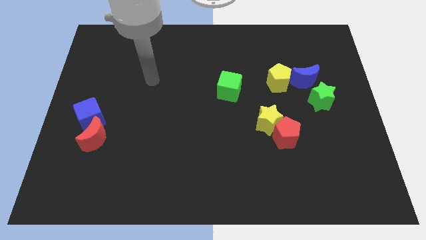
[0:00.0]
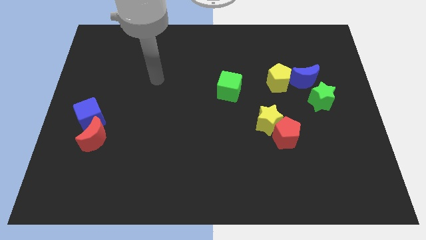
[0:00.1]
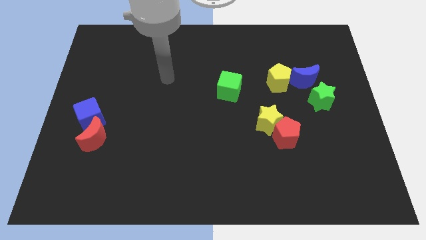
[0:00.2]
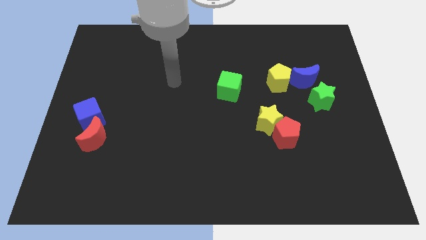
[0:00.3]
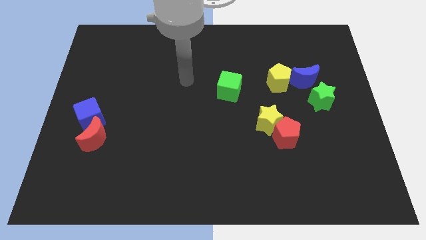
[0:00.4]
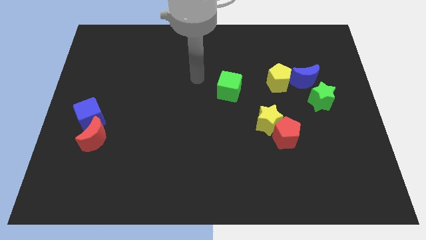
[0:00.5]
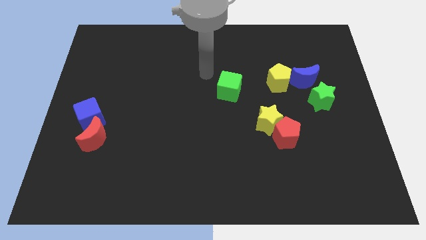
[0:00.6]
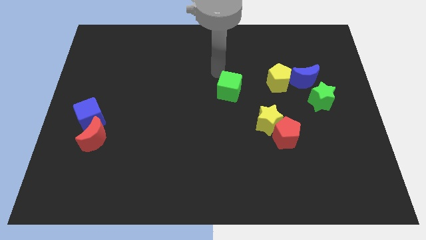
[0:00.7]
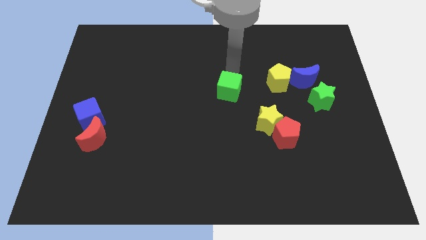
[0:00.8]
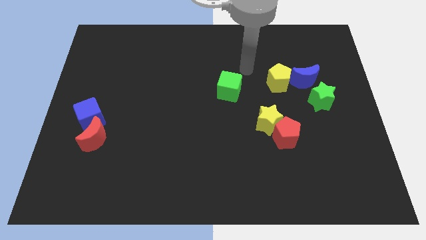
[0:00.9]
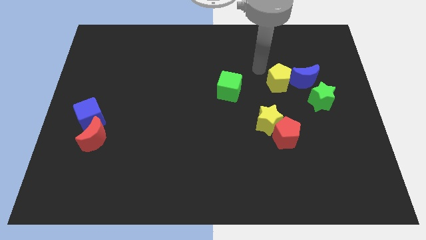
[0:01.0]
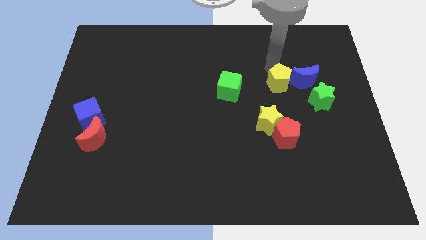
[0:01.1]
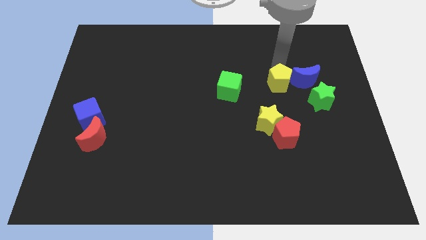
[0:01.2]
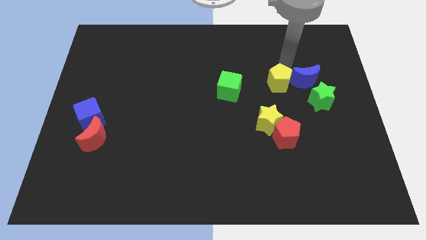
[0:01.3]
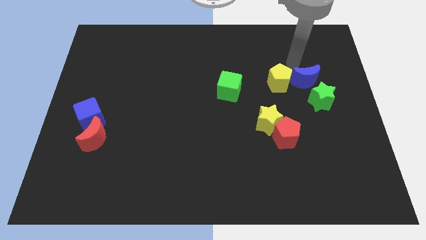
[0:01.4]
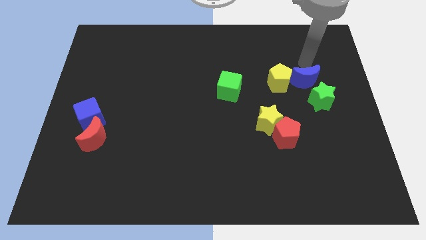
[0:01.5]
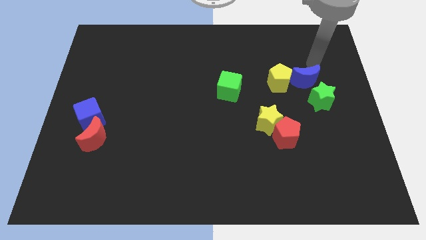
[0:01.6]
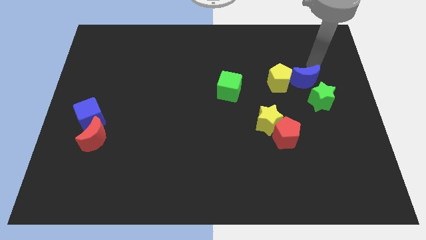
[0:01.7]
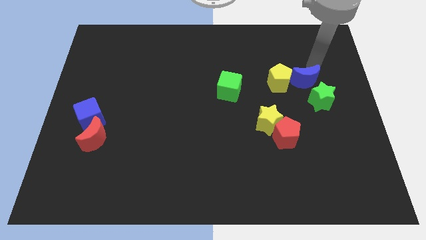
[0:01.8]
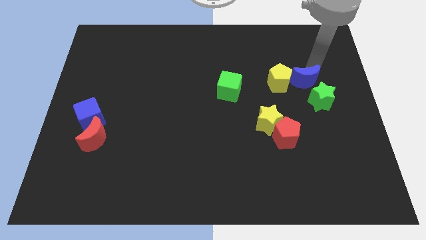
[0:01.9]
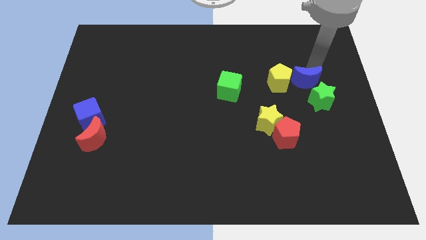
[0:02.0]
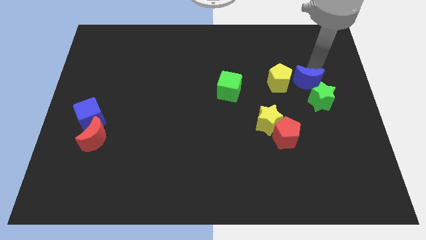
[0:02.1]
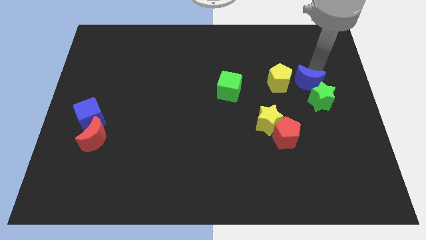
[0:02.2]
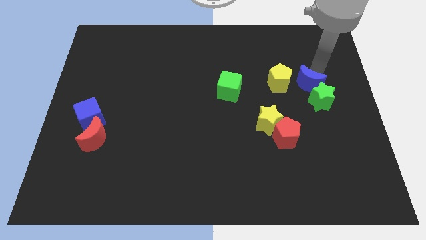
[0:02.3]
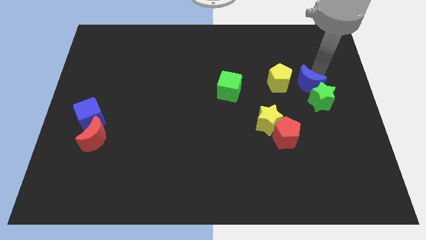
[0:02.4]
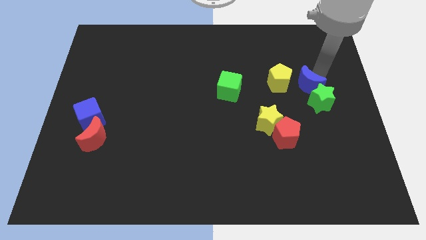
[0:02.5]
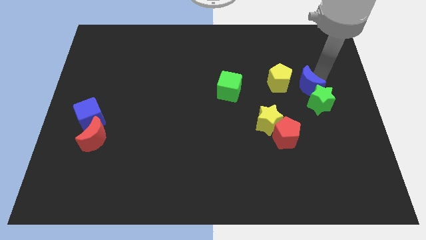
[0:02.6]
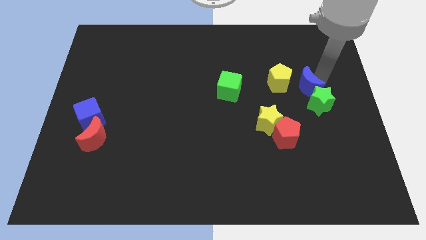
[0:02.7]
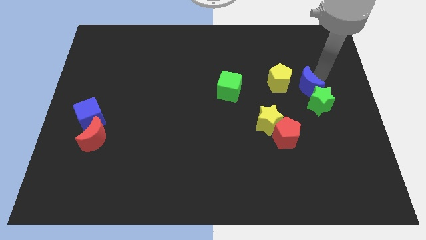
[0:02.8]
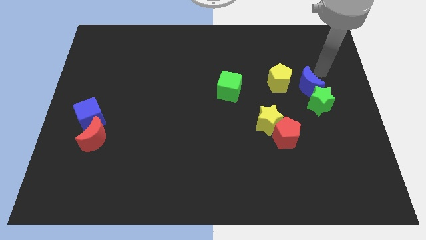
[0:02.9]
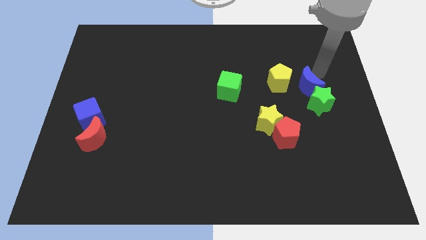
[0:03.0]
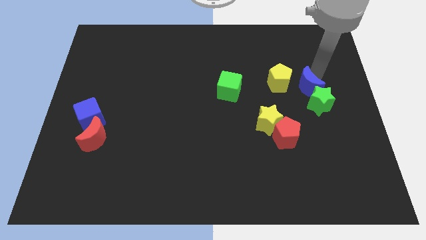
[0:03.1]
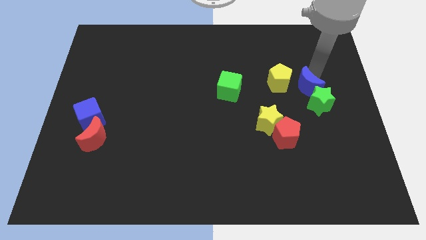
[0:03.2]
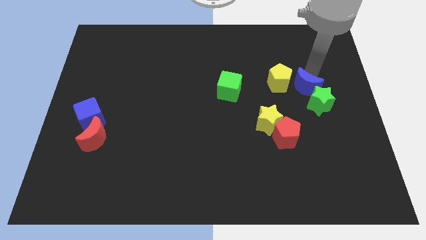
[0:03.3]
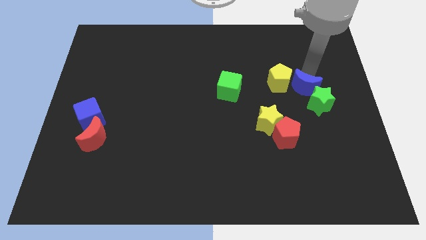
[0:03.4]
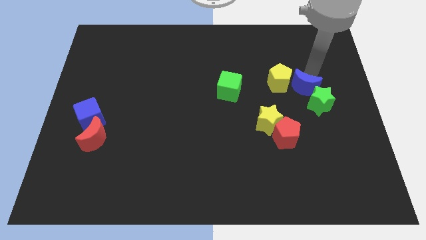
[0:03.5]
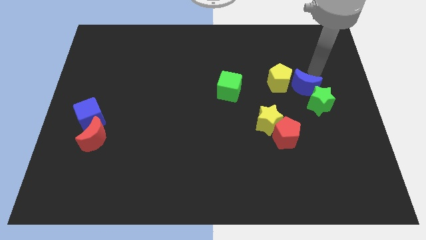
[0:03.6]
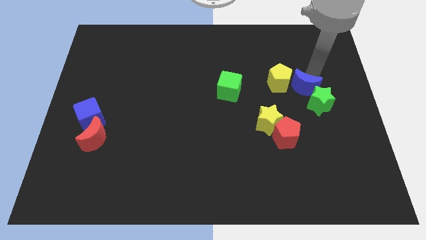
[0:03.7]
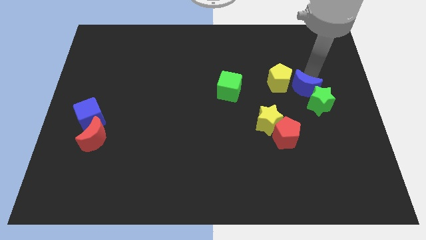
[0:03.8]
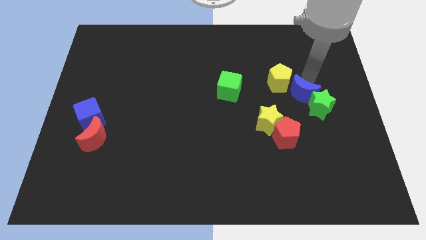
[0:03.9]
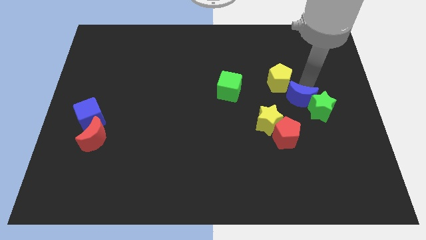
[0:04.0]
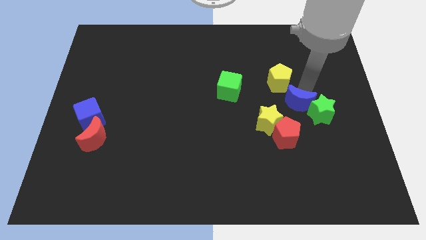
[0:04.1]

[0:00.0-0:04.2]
move the blue moon slightly down

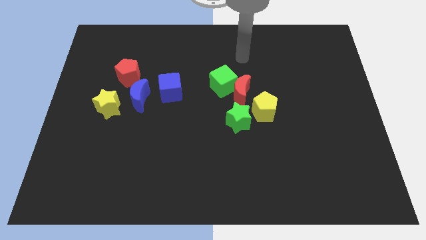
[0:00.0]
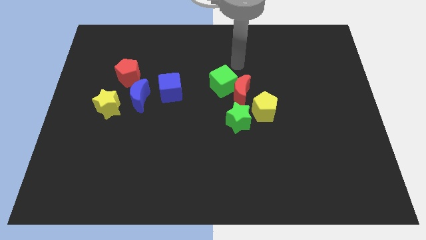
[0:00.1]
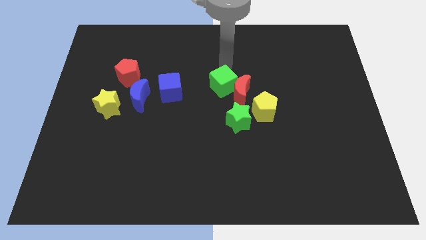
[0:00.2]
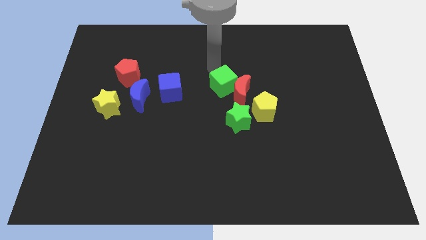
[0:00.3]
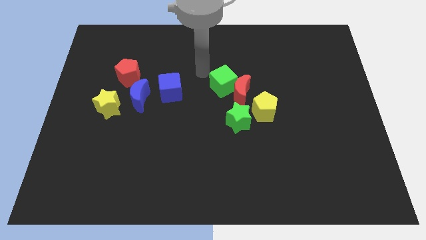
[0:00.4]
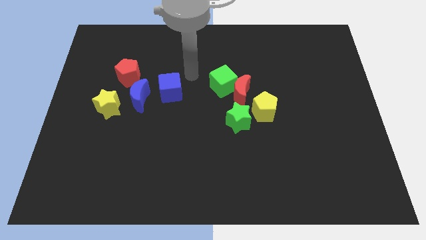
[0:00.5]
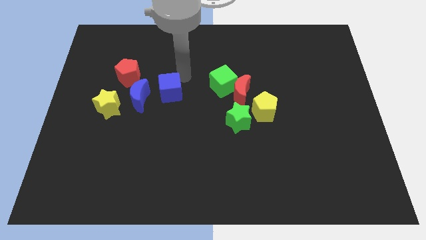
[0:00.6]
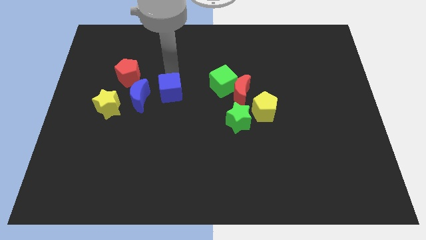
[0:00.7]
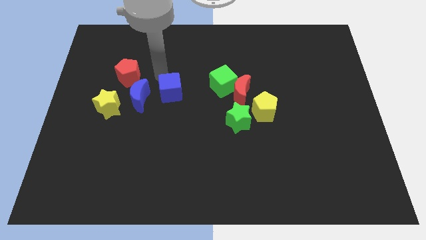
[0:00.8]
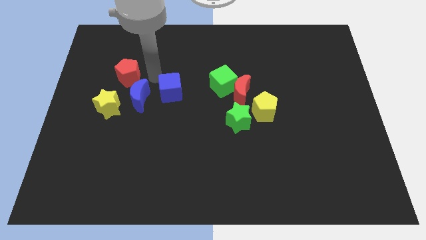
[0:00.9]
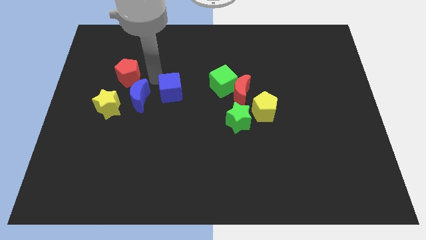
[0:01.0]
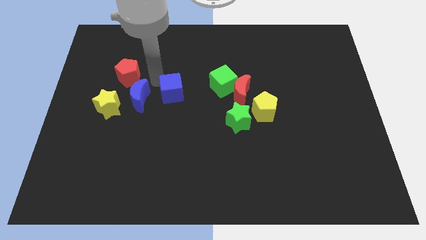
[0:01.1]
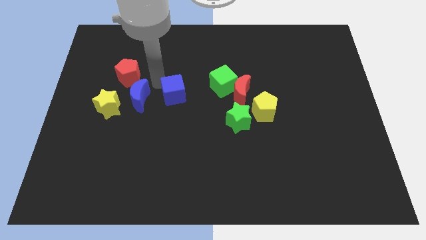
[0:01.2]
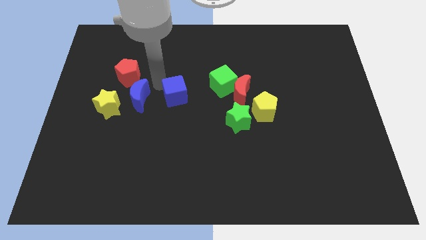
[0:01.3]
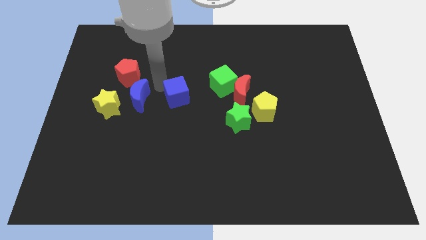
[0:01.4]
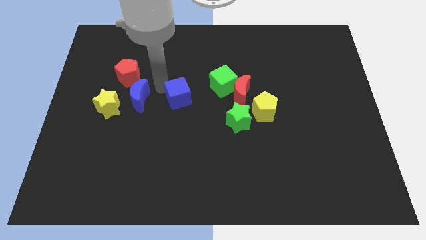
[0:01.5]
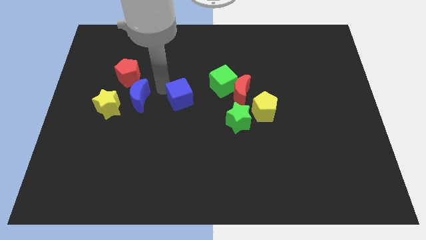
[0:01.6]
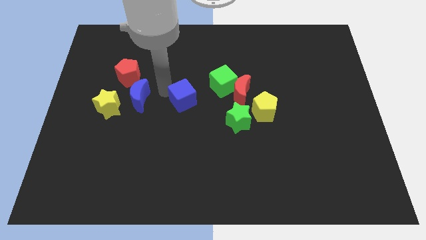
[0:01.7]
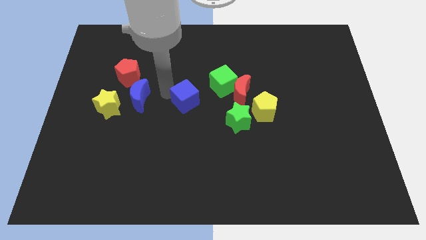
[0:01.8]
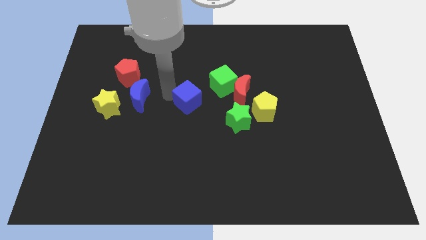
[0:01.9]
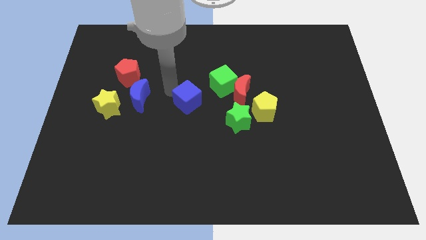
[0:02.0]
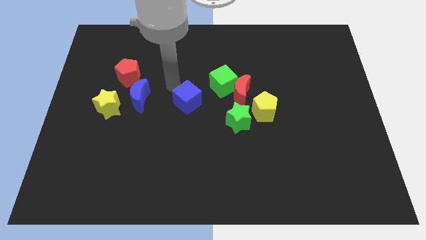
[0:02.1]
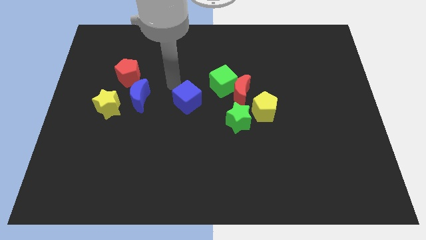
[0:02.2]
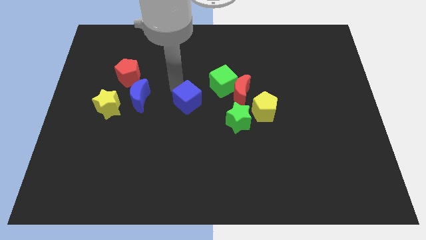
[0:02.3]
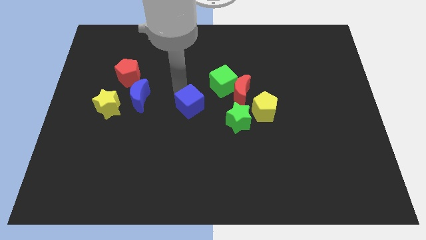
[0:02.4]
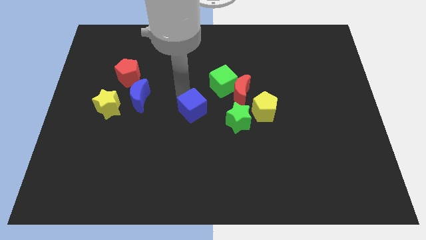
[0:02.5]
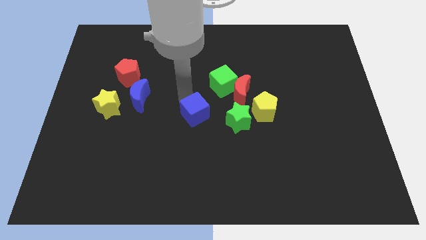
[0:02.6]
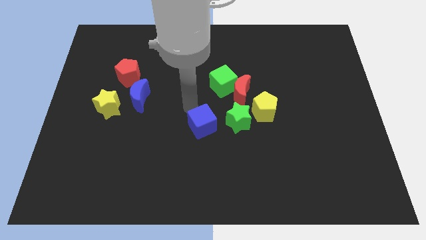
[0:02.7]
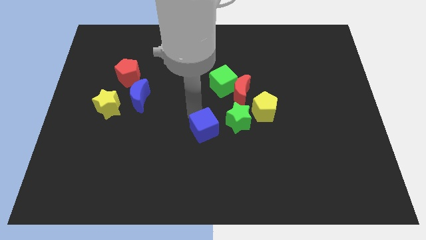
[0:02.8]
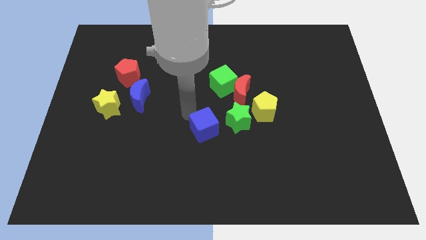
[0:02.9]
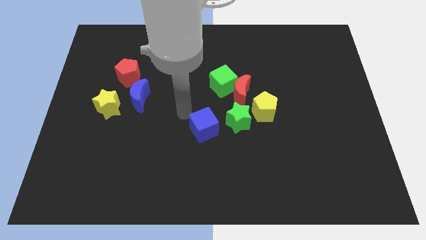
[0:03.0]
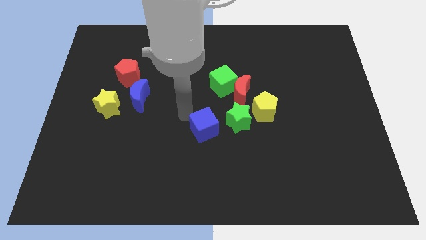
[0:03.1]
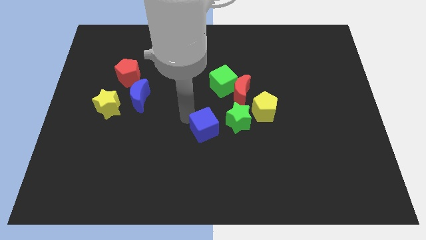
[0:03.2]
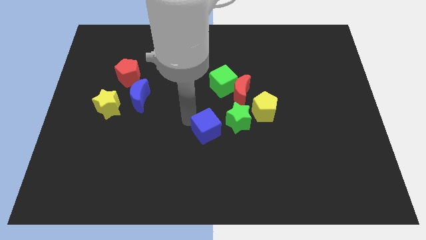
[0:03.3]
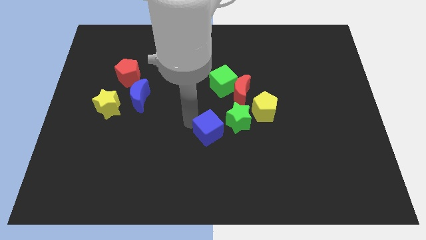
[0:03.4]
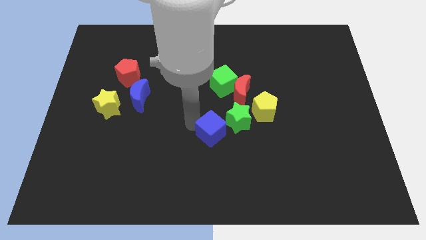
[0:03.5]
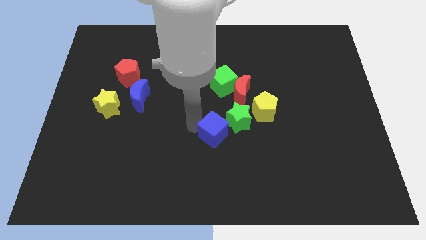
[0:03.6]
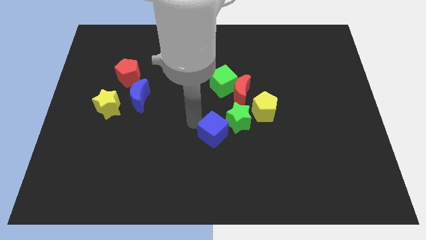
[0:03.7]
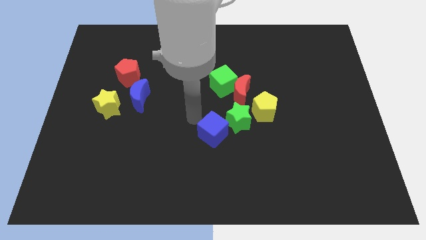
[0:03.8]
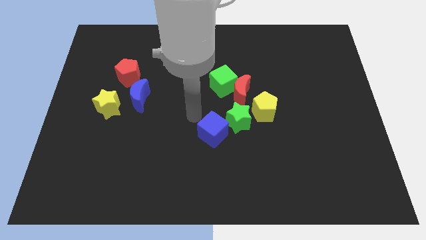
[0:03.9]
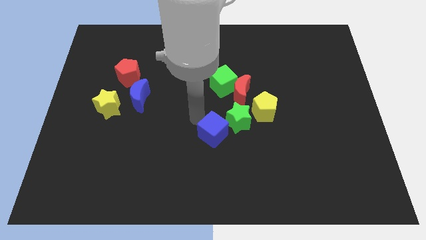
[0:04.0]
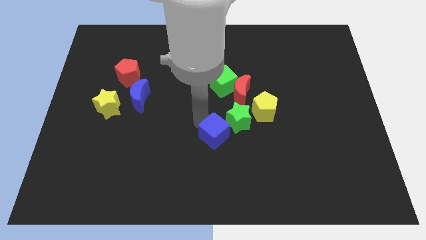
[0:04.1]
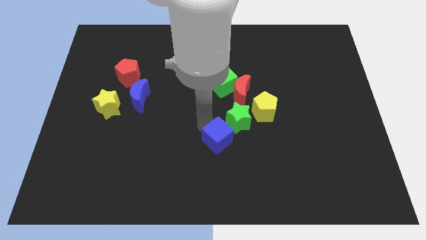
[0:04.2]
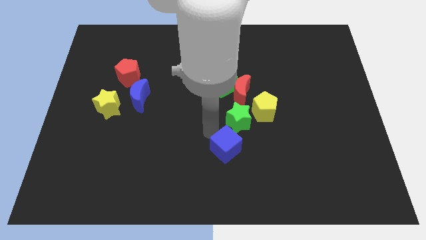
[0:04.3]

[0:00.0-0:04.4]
move the blue cube down and then right
